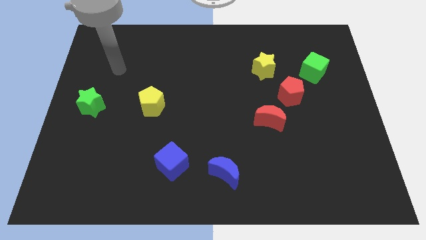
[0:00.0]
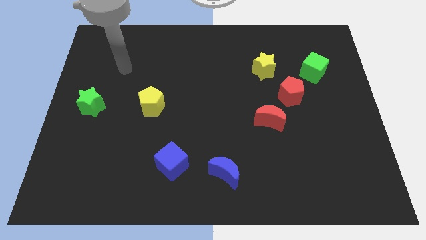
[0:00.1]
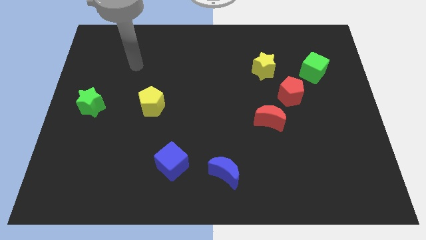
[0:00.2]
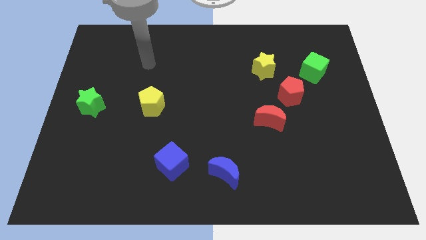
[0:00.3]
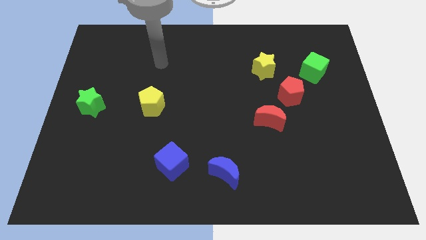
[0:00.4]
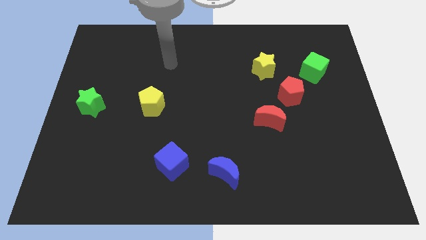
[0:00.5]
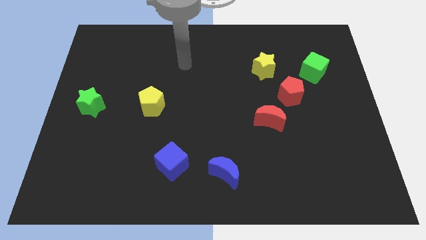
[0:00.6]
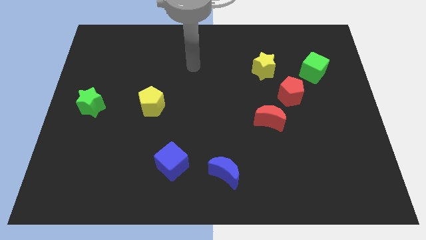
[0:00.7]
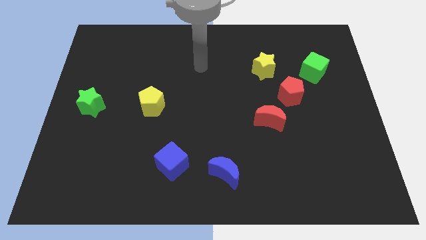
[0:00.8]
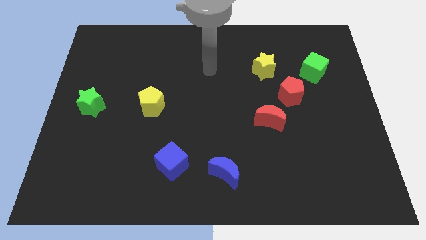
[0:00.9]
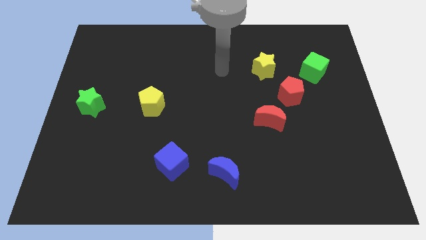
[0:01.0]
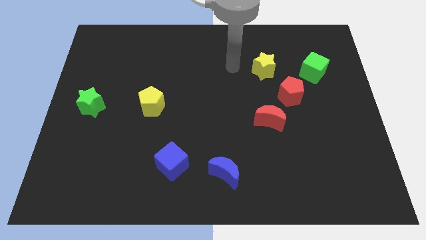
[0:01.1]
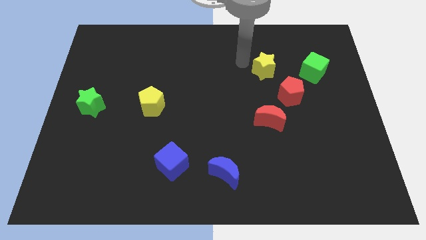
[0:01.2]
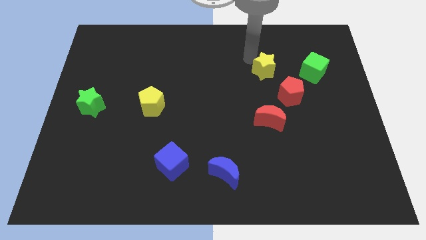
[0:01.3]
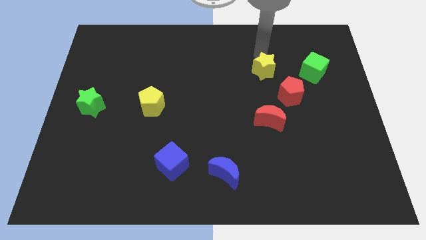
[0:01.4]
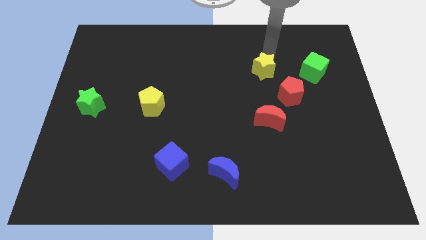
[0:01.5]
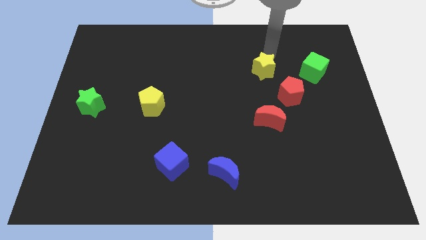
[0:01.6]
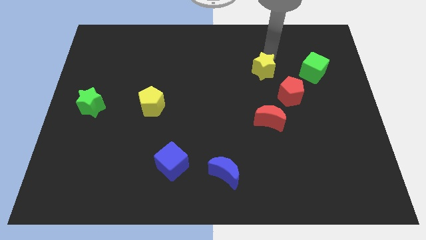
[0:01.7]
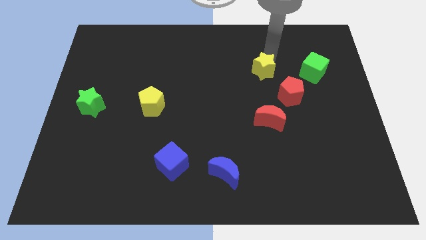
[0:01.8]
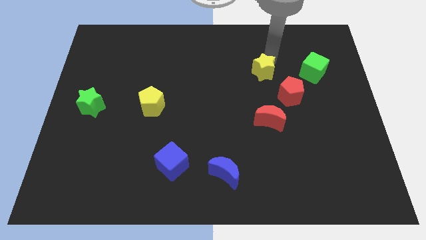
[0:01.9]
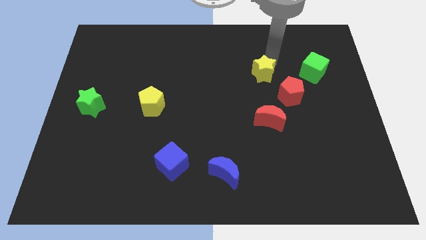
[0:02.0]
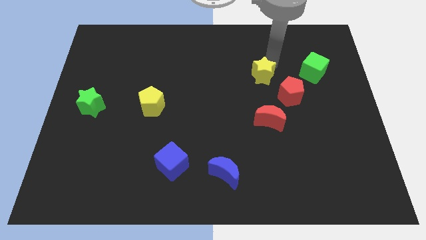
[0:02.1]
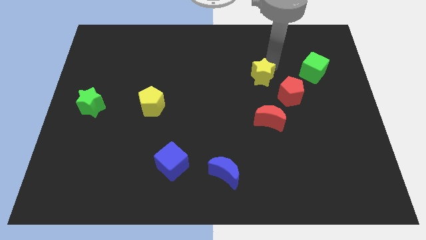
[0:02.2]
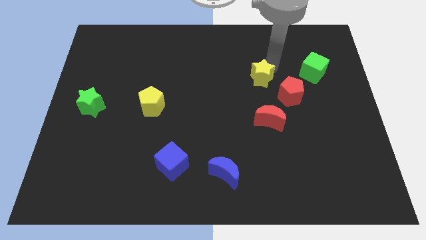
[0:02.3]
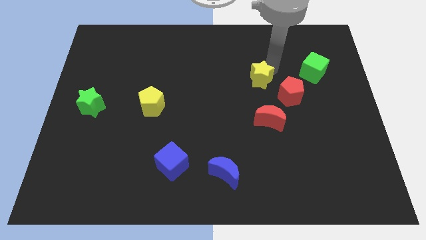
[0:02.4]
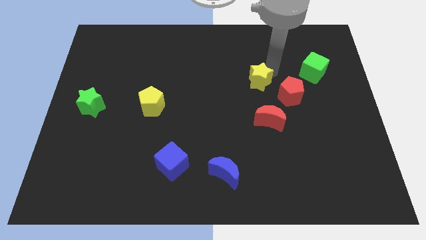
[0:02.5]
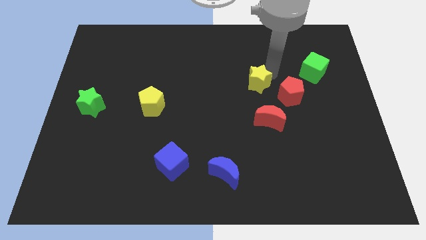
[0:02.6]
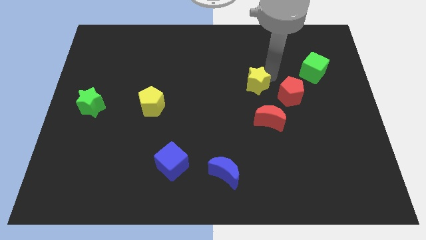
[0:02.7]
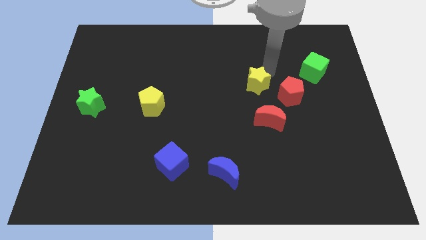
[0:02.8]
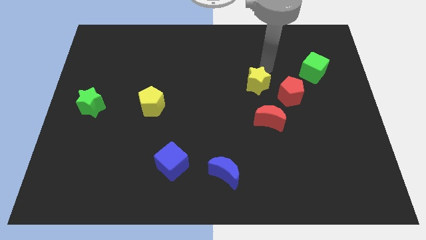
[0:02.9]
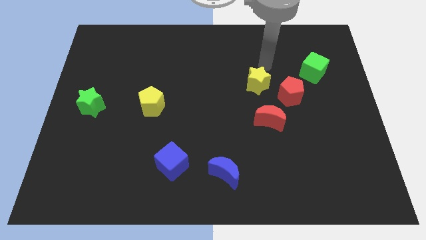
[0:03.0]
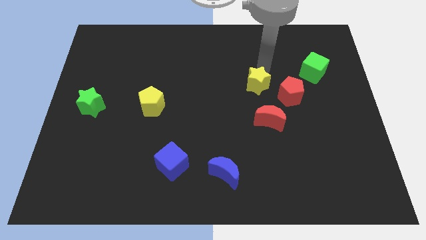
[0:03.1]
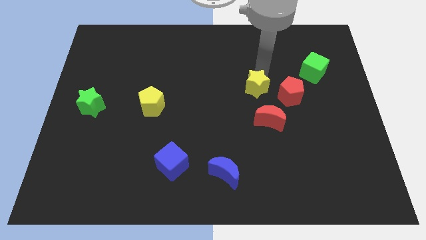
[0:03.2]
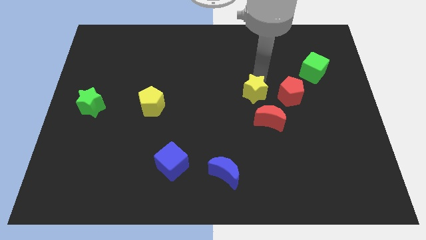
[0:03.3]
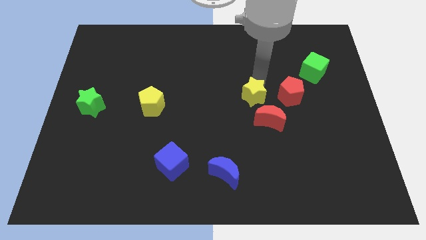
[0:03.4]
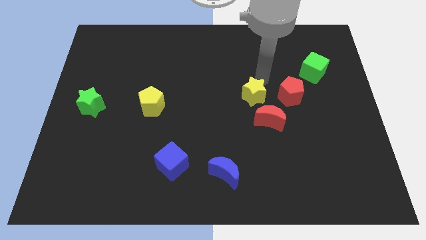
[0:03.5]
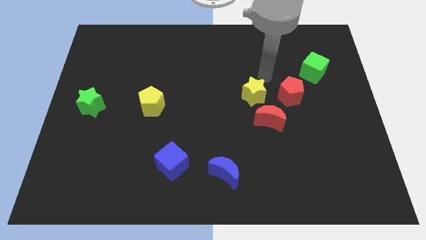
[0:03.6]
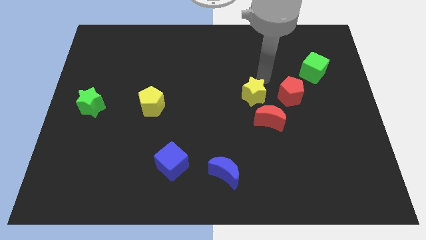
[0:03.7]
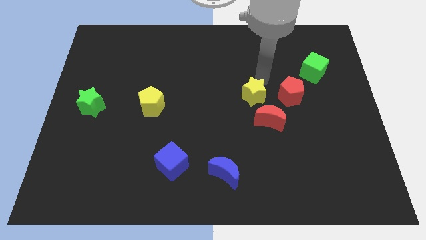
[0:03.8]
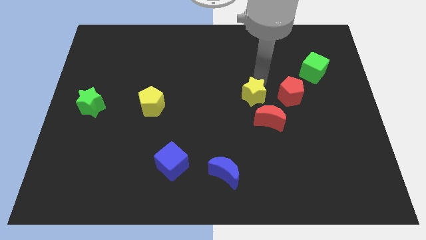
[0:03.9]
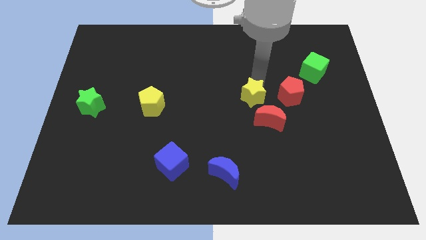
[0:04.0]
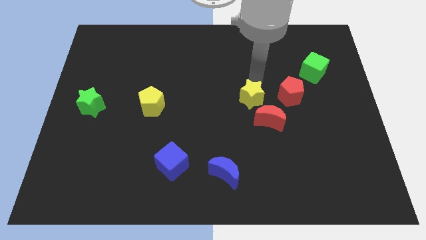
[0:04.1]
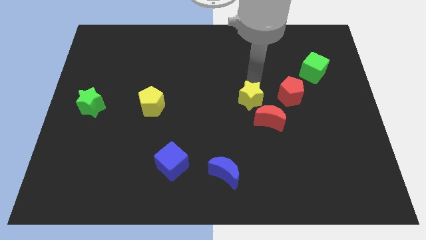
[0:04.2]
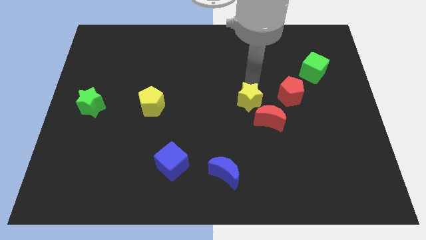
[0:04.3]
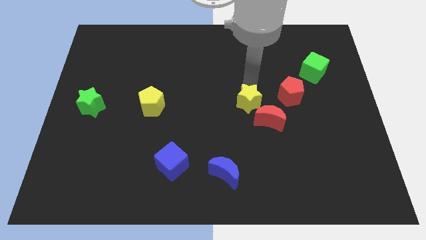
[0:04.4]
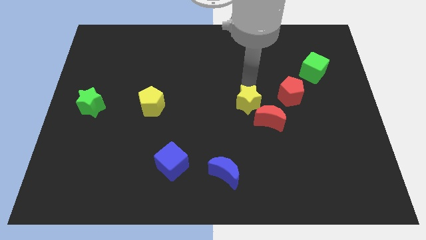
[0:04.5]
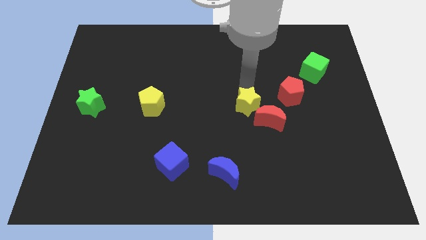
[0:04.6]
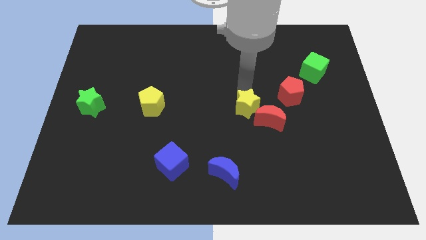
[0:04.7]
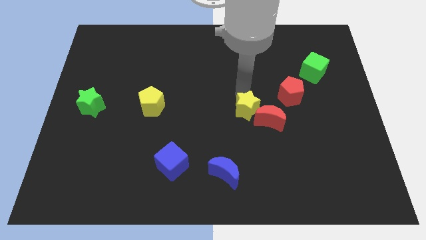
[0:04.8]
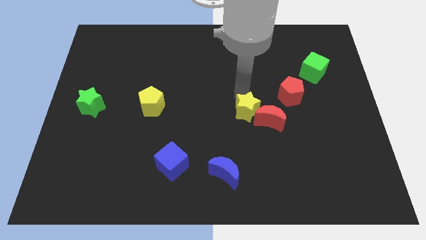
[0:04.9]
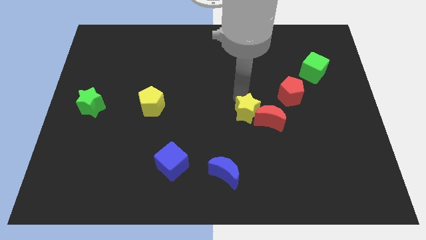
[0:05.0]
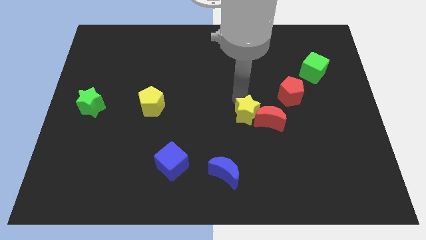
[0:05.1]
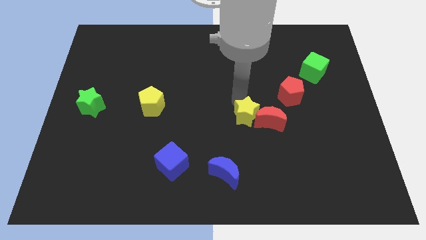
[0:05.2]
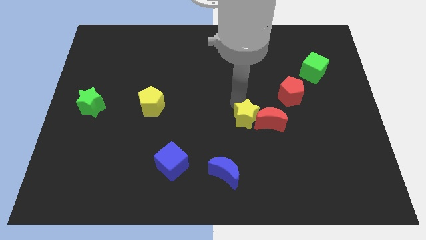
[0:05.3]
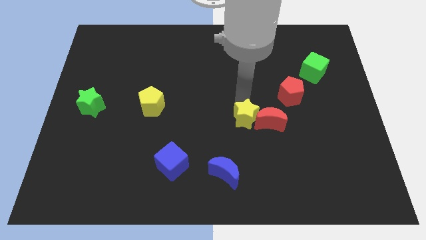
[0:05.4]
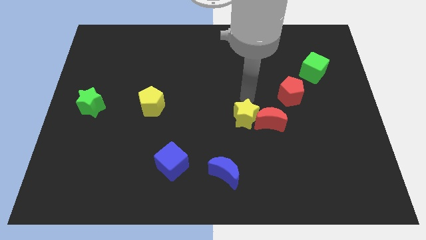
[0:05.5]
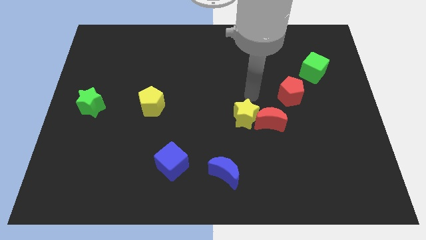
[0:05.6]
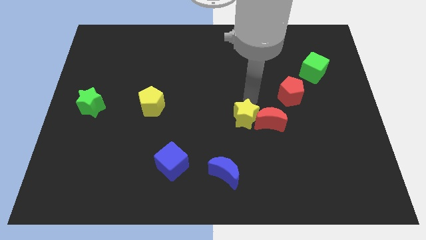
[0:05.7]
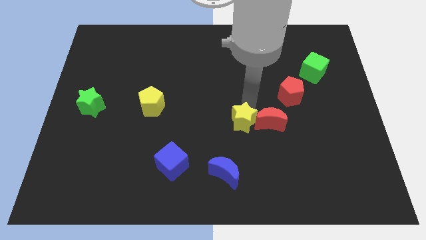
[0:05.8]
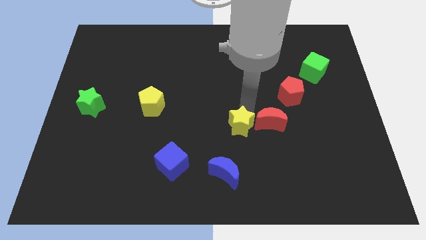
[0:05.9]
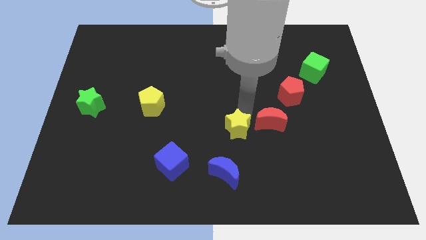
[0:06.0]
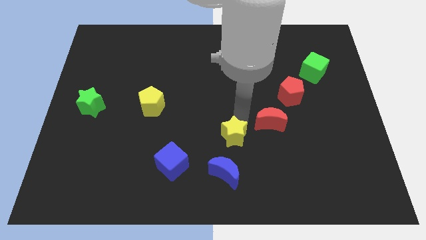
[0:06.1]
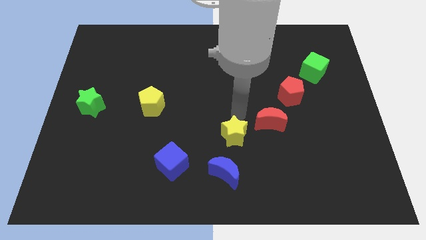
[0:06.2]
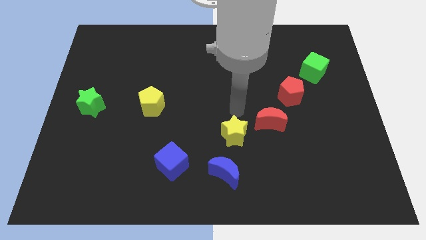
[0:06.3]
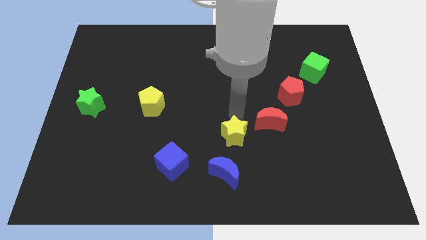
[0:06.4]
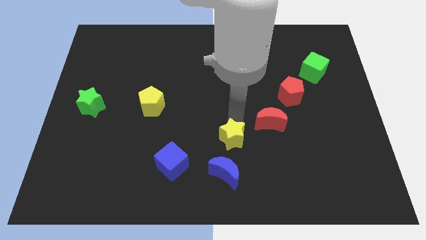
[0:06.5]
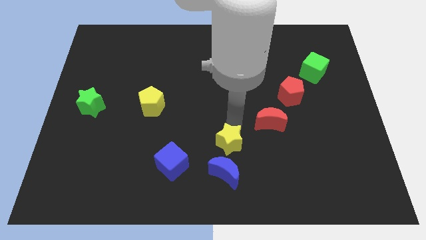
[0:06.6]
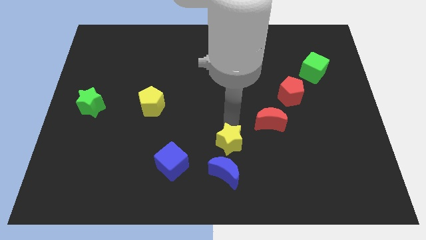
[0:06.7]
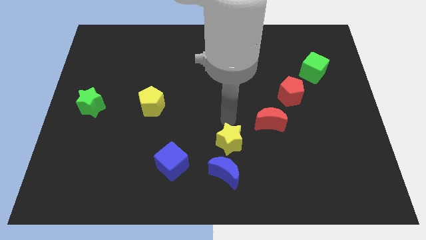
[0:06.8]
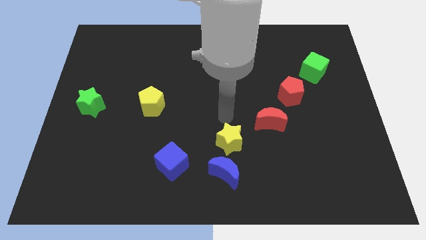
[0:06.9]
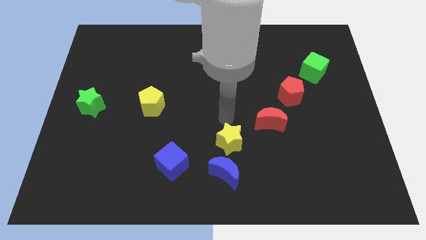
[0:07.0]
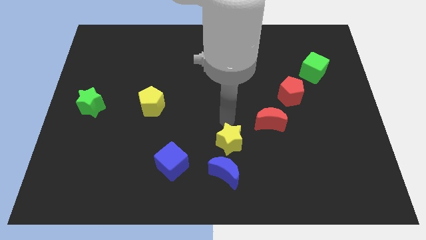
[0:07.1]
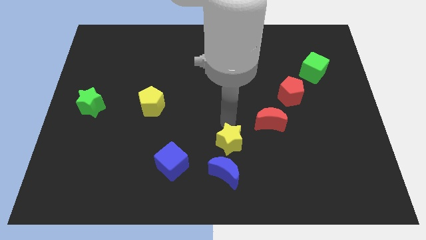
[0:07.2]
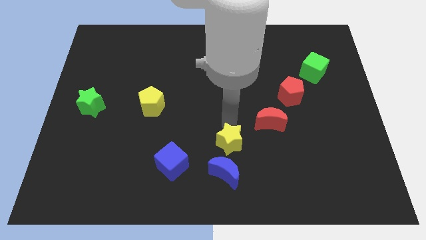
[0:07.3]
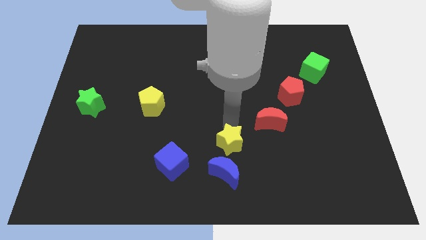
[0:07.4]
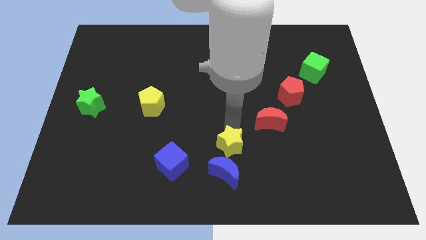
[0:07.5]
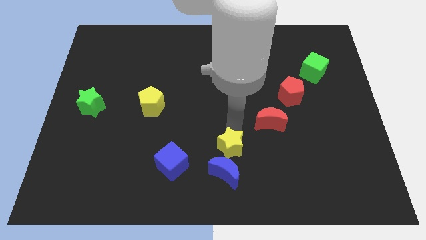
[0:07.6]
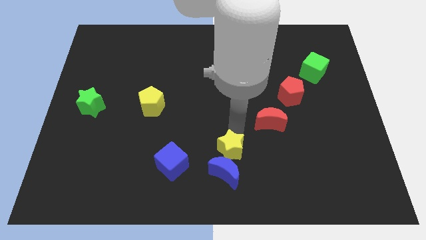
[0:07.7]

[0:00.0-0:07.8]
push the yellow star next to the blue moon
